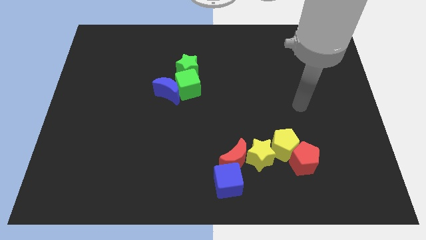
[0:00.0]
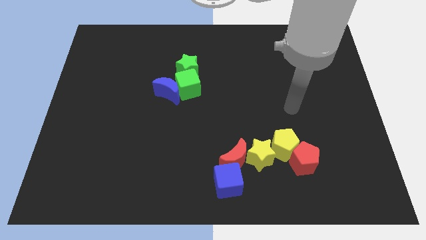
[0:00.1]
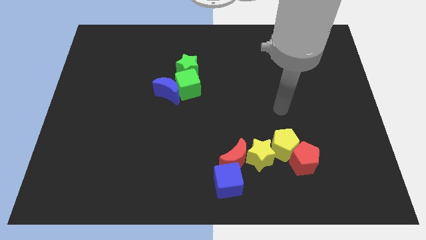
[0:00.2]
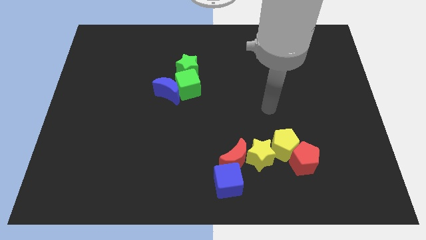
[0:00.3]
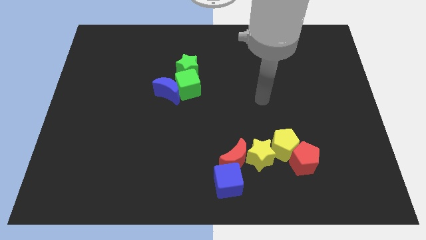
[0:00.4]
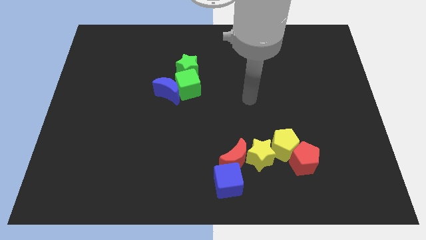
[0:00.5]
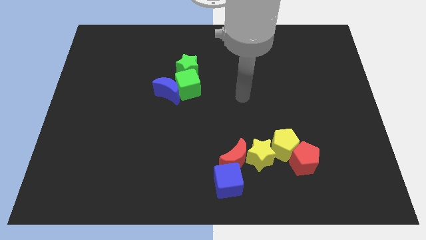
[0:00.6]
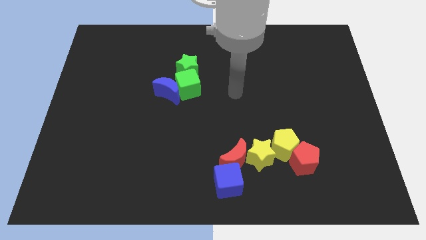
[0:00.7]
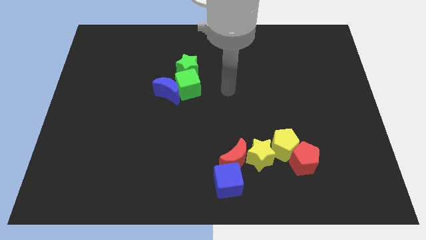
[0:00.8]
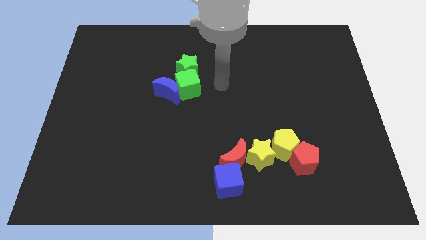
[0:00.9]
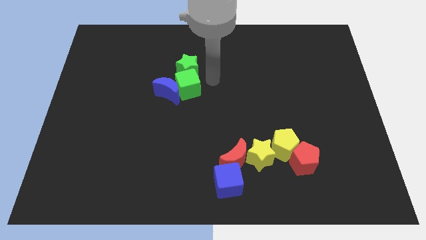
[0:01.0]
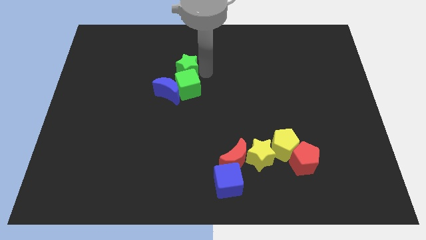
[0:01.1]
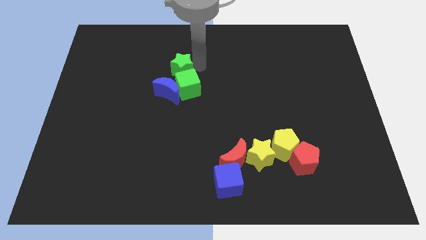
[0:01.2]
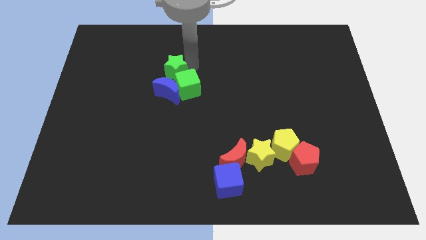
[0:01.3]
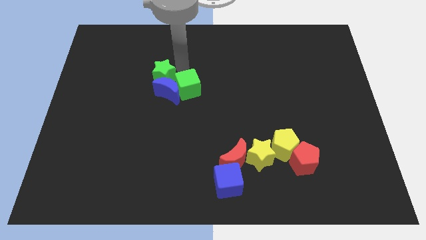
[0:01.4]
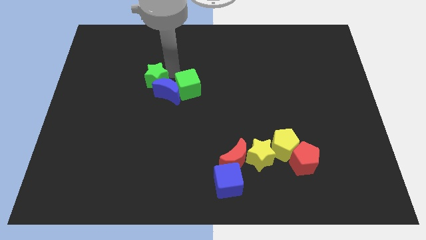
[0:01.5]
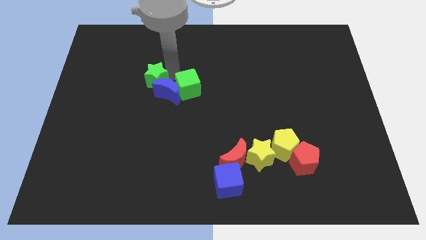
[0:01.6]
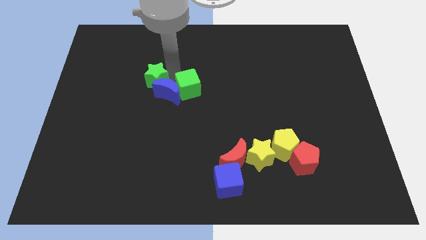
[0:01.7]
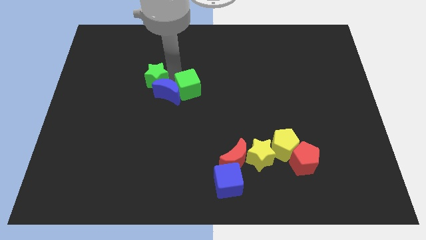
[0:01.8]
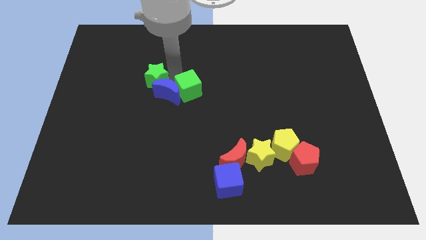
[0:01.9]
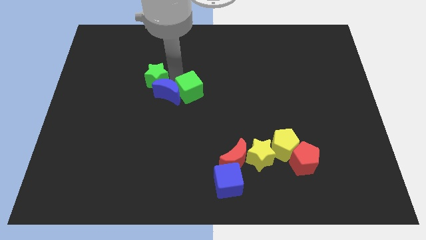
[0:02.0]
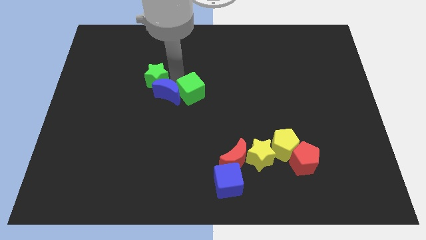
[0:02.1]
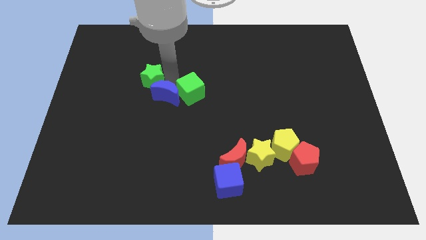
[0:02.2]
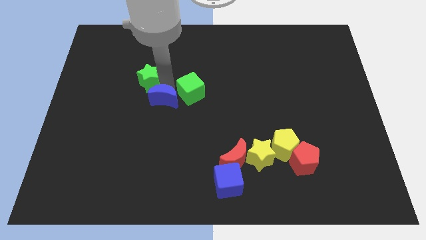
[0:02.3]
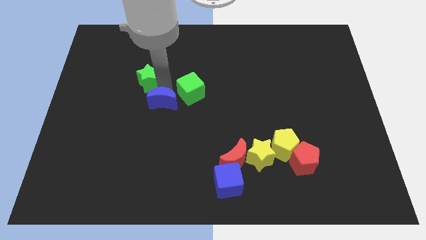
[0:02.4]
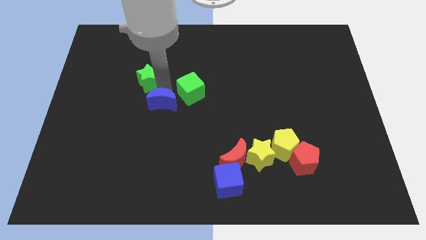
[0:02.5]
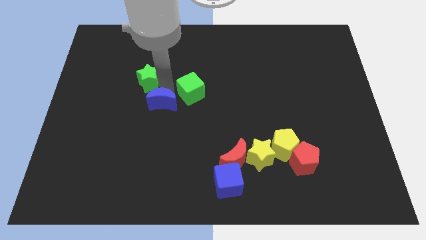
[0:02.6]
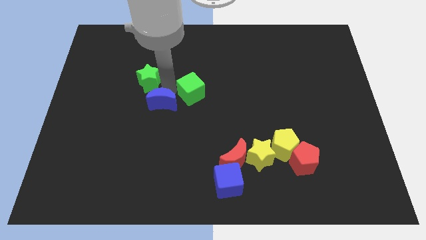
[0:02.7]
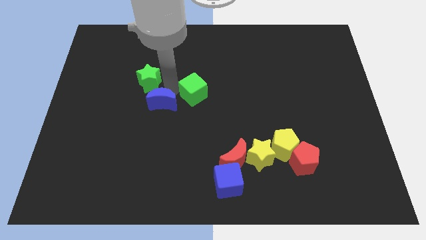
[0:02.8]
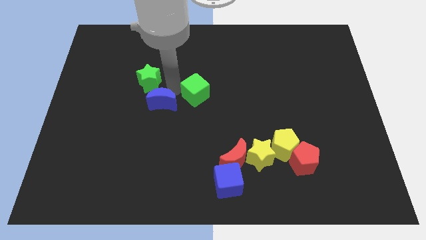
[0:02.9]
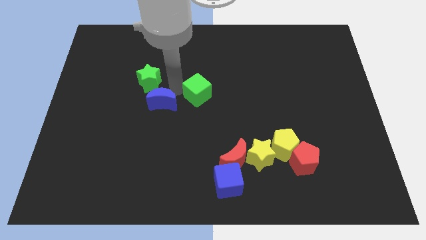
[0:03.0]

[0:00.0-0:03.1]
separate the green cube from the blue moon and green star

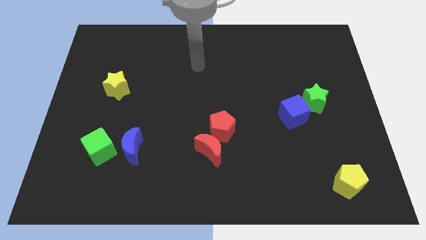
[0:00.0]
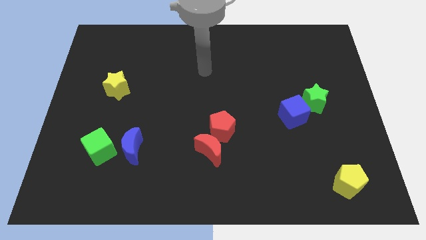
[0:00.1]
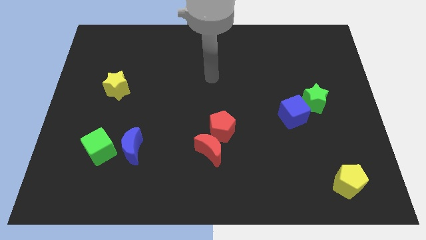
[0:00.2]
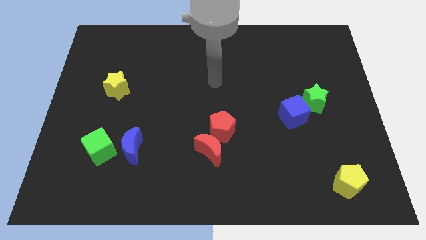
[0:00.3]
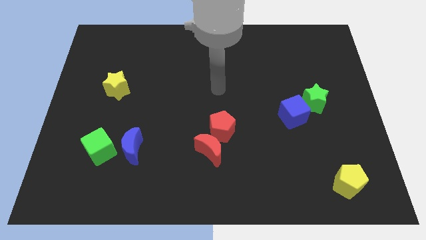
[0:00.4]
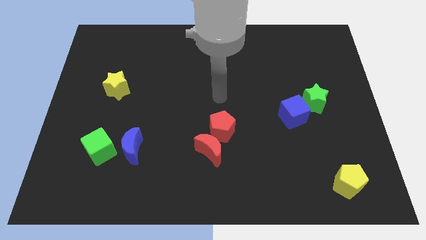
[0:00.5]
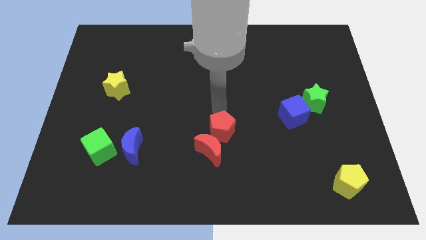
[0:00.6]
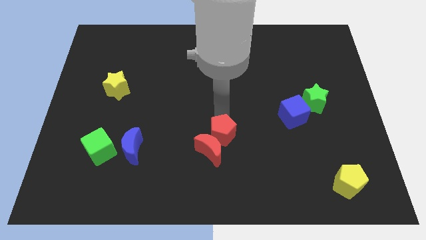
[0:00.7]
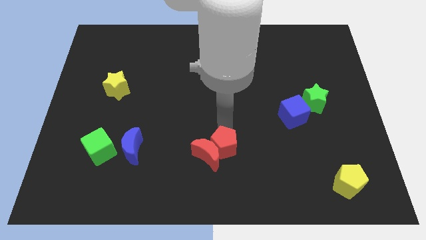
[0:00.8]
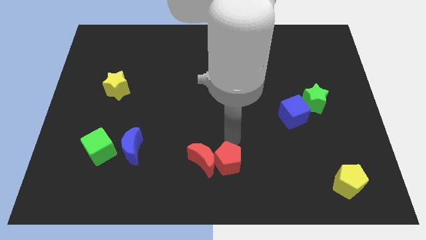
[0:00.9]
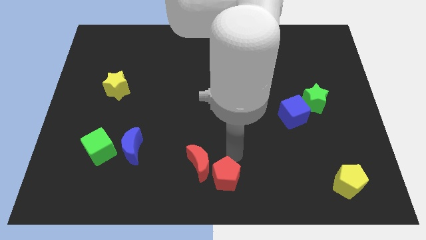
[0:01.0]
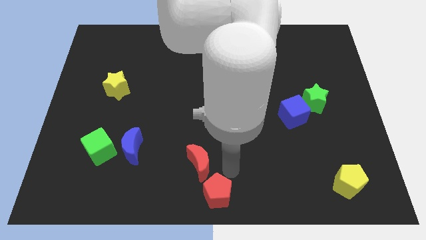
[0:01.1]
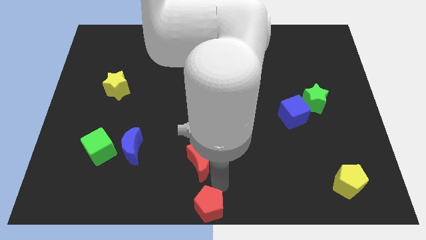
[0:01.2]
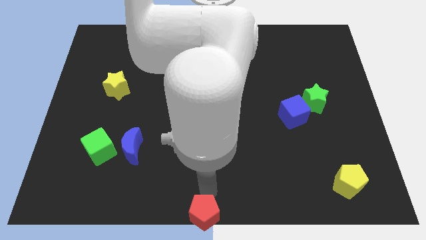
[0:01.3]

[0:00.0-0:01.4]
pull the red moon apart from the red pentagon

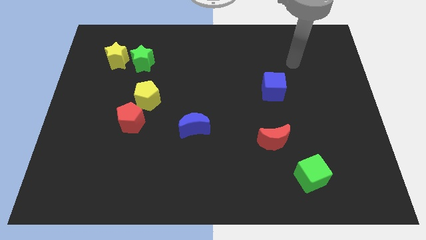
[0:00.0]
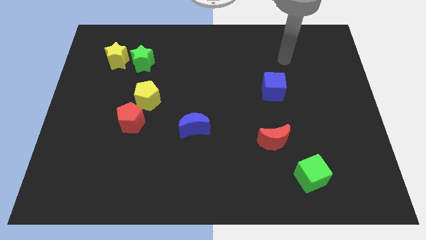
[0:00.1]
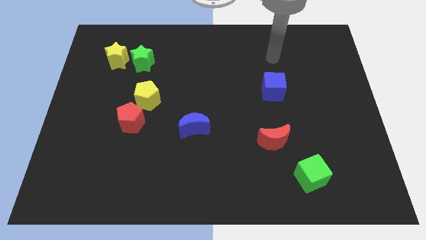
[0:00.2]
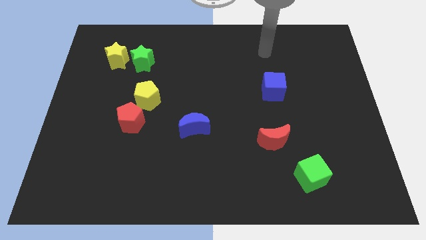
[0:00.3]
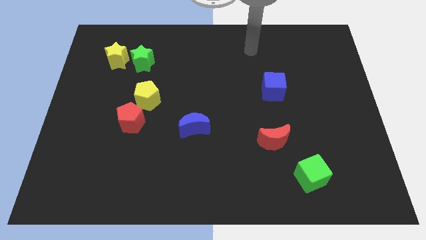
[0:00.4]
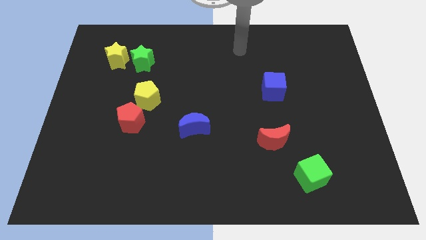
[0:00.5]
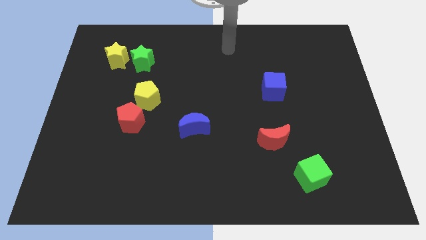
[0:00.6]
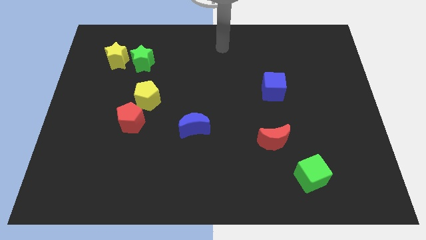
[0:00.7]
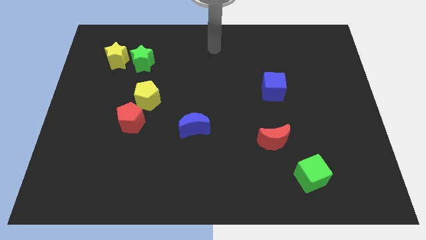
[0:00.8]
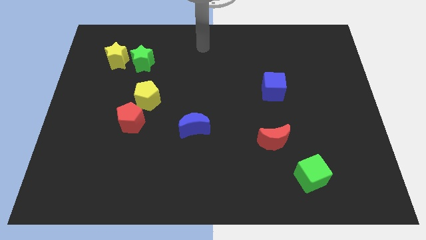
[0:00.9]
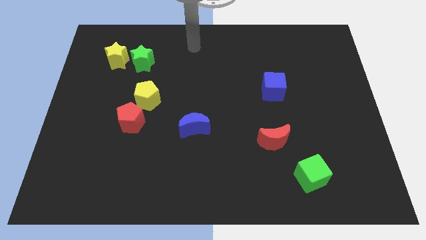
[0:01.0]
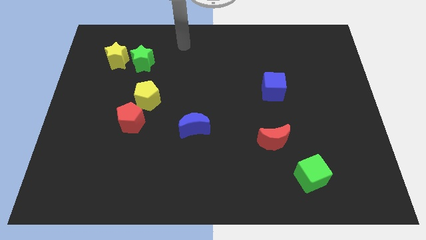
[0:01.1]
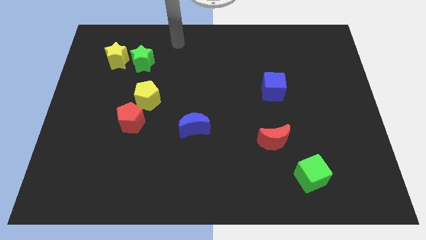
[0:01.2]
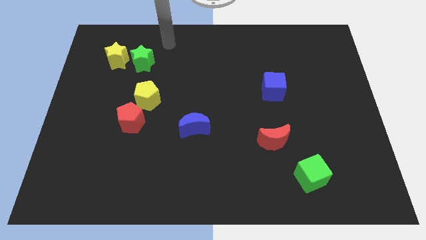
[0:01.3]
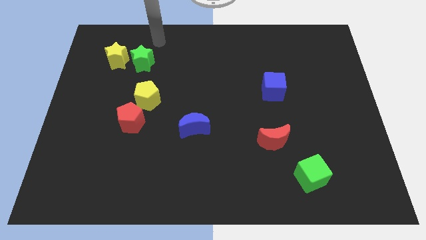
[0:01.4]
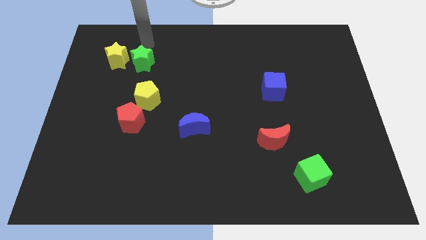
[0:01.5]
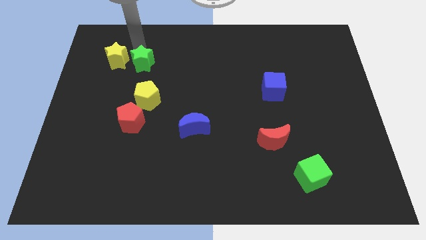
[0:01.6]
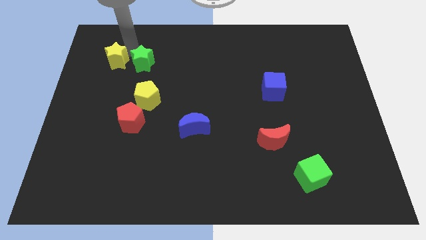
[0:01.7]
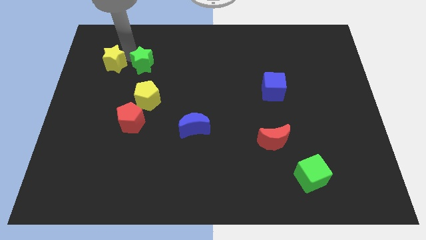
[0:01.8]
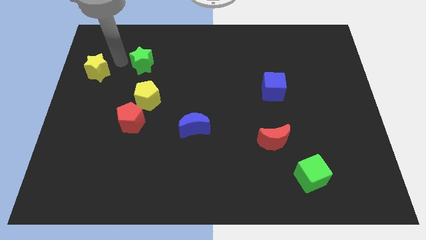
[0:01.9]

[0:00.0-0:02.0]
move the green star away from the yellow star

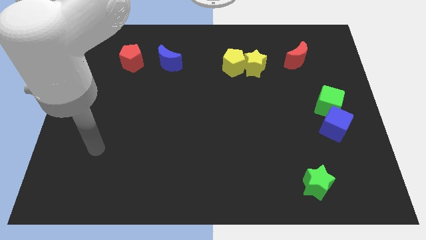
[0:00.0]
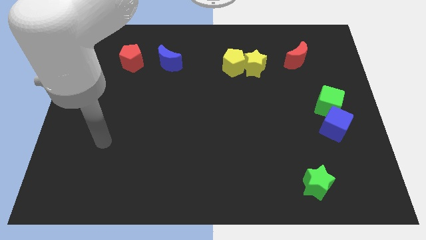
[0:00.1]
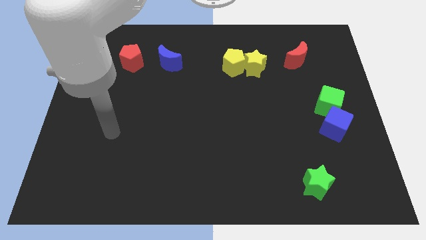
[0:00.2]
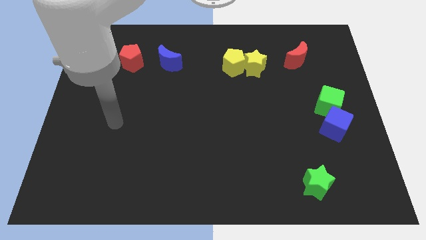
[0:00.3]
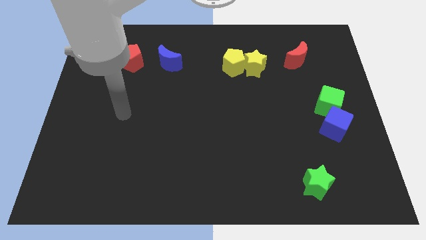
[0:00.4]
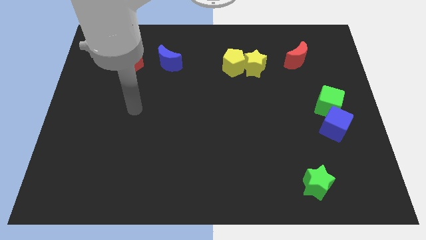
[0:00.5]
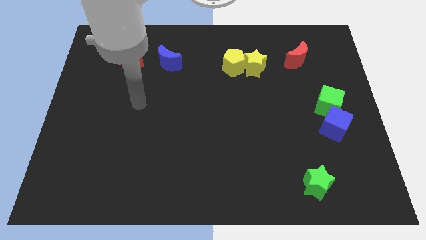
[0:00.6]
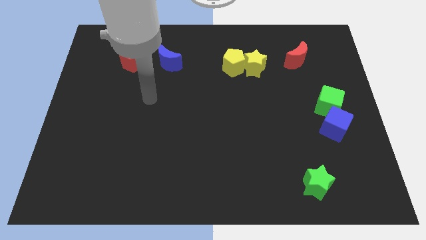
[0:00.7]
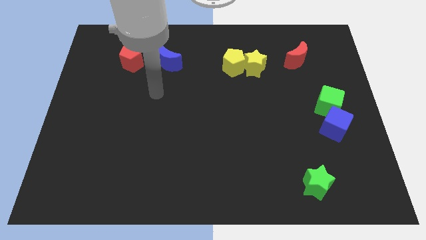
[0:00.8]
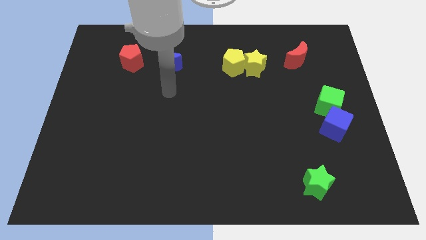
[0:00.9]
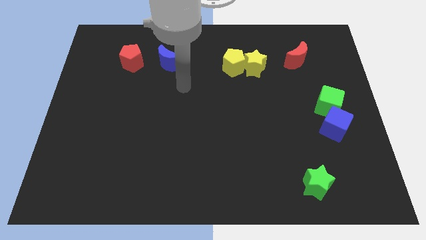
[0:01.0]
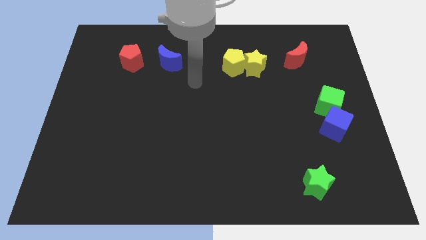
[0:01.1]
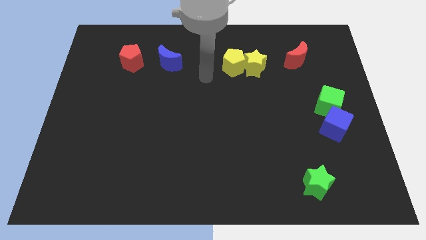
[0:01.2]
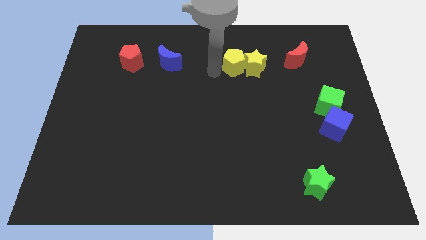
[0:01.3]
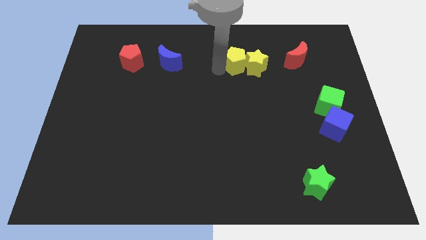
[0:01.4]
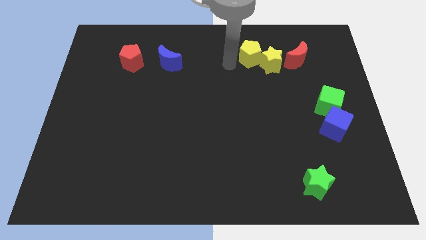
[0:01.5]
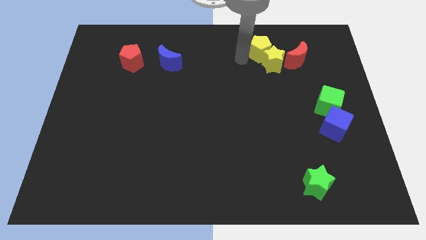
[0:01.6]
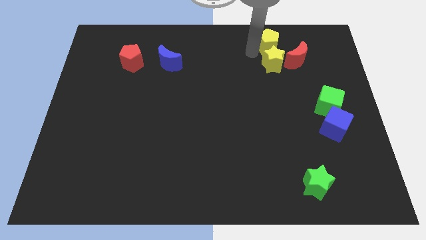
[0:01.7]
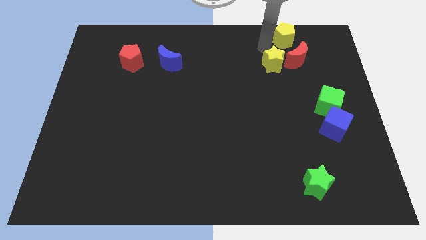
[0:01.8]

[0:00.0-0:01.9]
move the yellow star away from the yellow pentagon

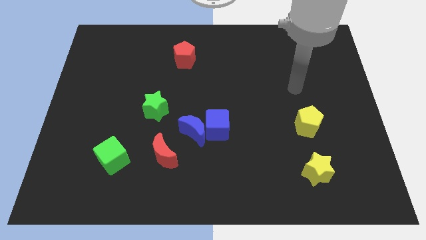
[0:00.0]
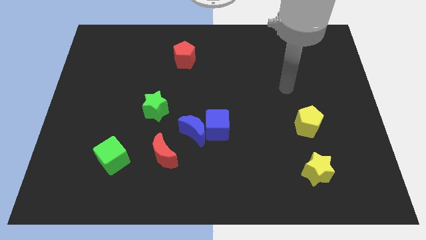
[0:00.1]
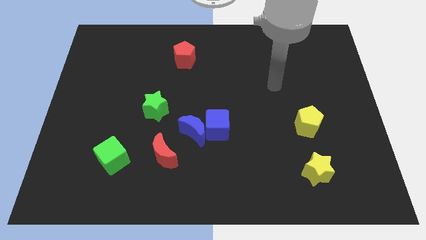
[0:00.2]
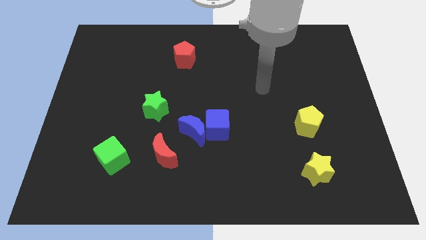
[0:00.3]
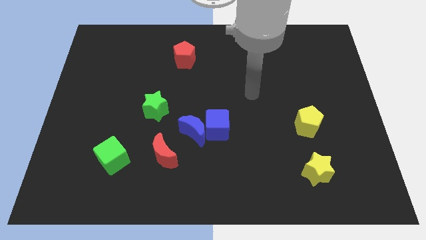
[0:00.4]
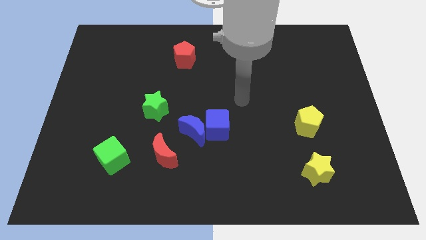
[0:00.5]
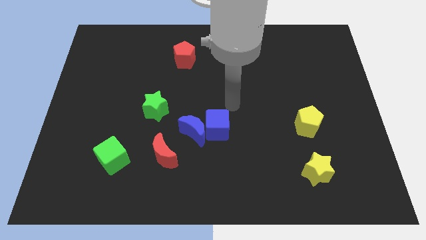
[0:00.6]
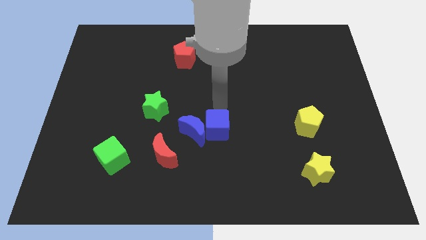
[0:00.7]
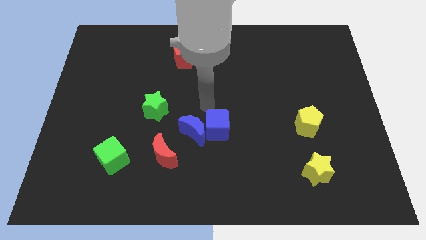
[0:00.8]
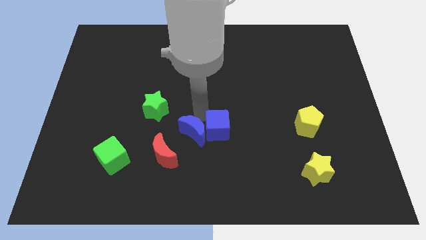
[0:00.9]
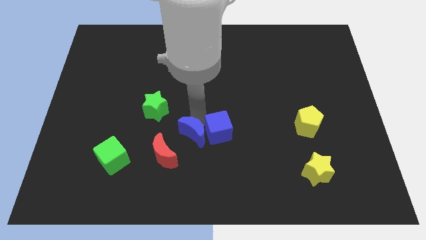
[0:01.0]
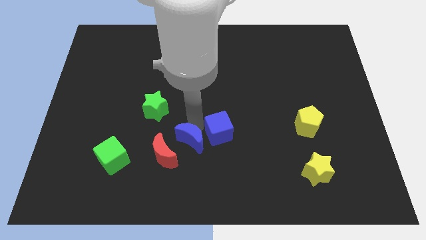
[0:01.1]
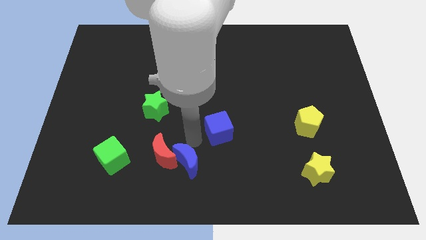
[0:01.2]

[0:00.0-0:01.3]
move the blue cube away from the blue moon
